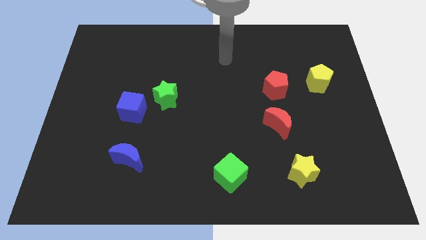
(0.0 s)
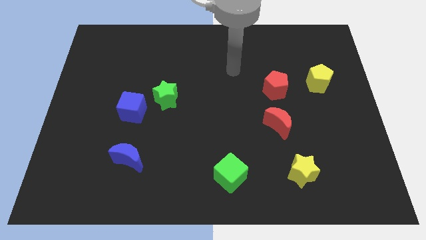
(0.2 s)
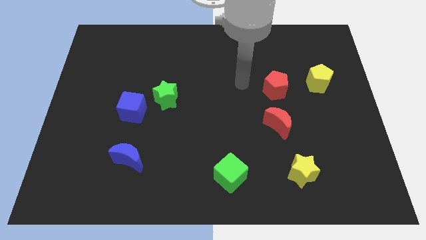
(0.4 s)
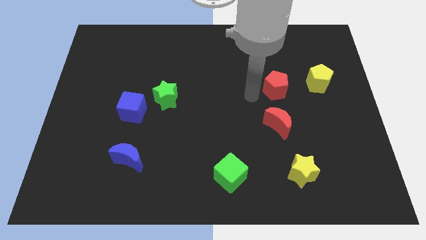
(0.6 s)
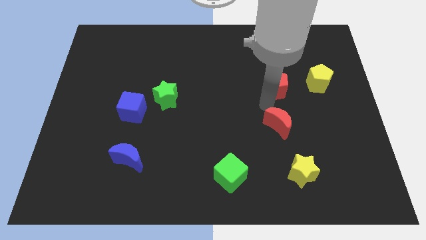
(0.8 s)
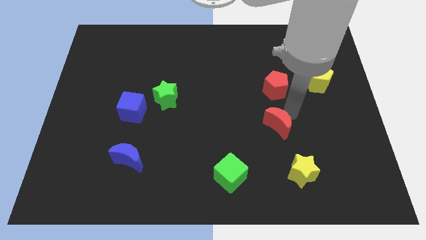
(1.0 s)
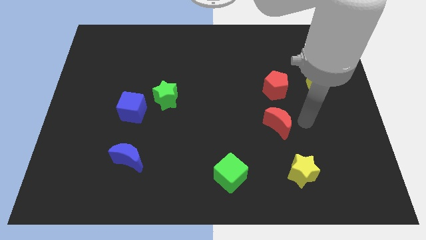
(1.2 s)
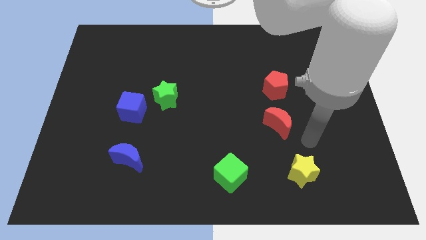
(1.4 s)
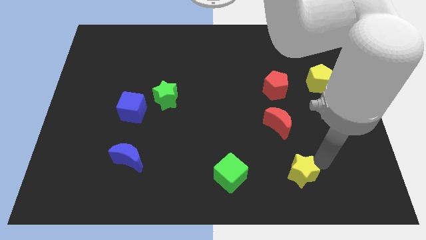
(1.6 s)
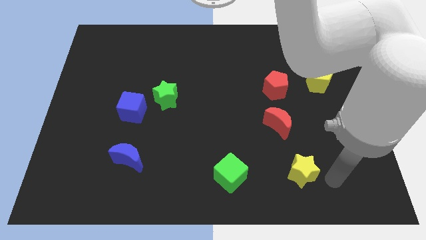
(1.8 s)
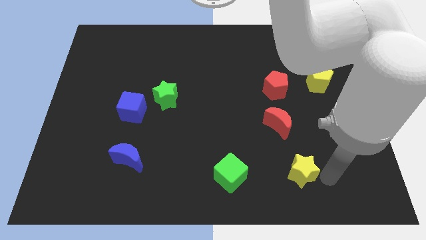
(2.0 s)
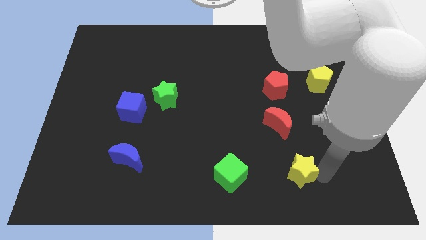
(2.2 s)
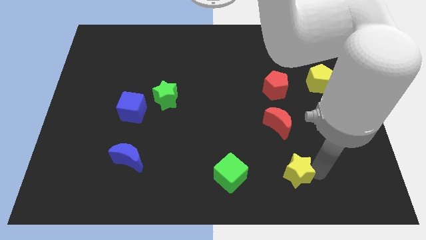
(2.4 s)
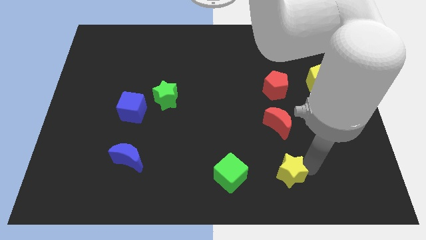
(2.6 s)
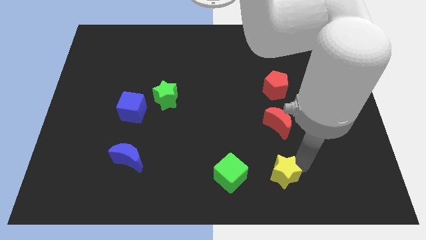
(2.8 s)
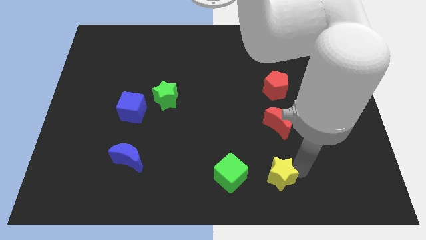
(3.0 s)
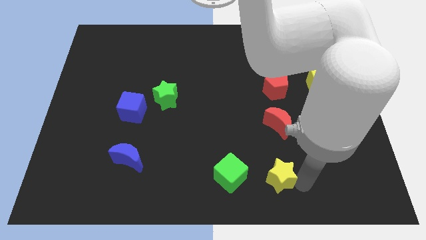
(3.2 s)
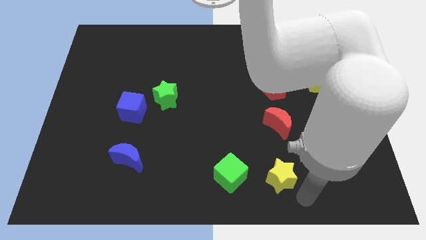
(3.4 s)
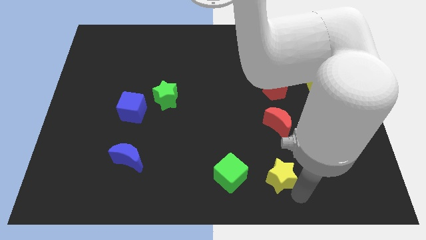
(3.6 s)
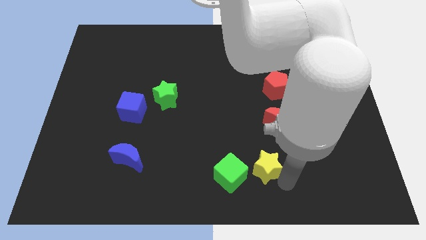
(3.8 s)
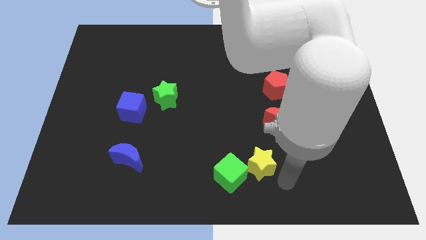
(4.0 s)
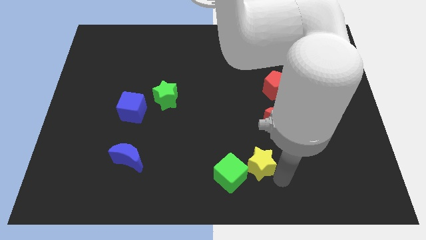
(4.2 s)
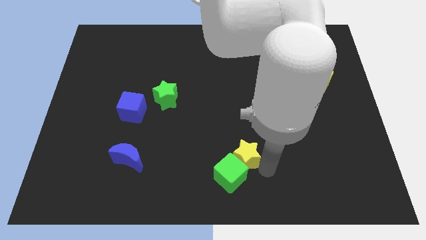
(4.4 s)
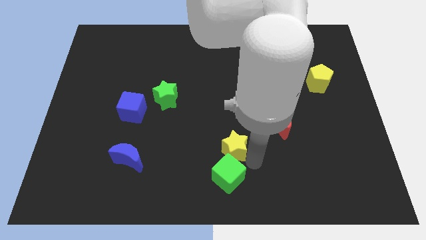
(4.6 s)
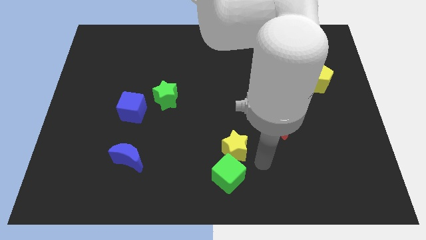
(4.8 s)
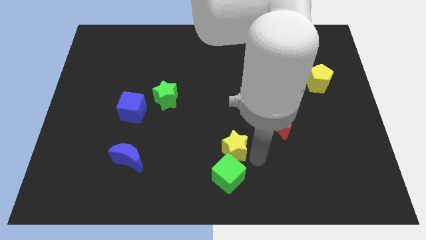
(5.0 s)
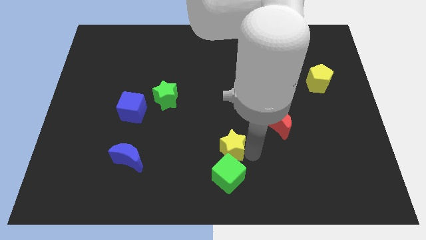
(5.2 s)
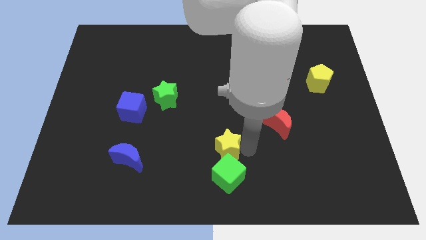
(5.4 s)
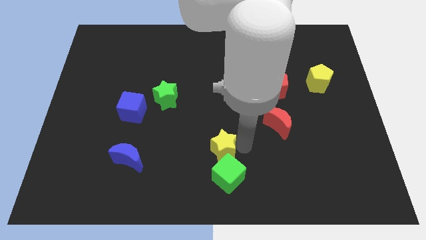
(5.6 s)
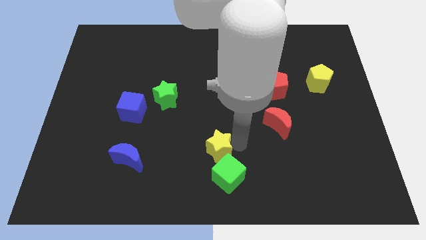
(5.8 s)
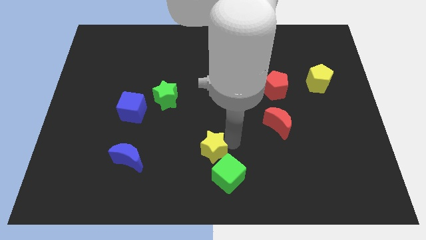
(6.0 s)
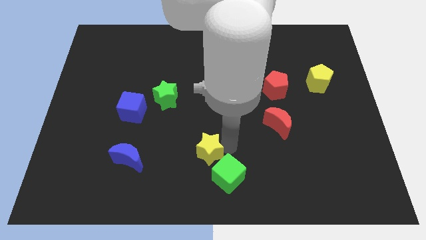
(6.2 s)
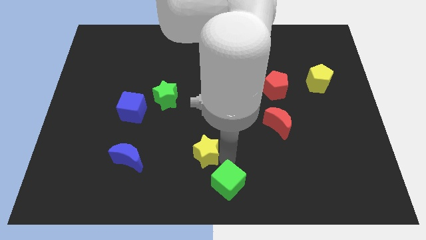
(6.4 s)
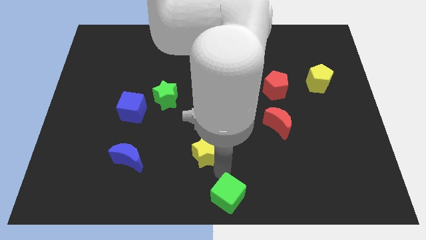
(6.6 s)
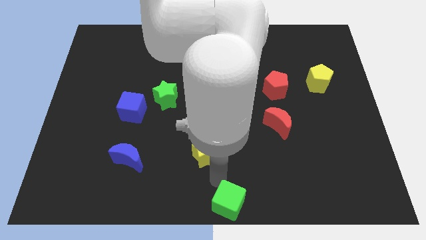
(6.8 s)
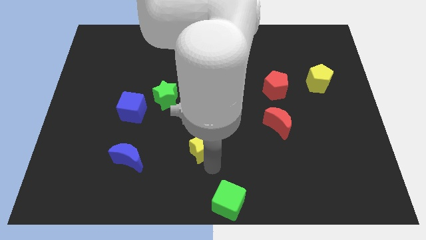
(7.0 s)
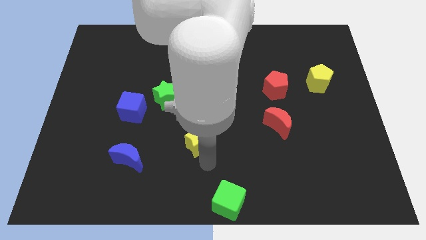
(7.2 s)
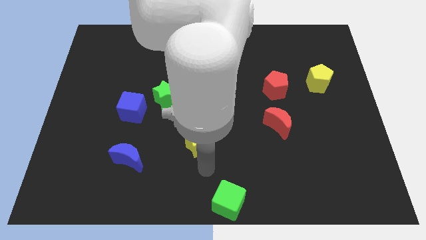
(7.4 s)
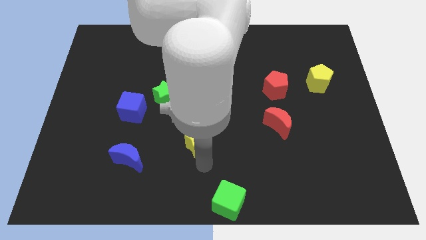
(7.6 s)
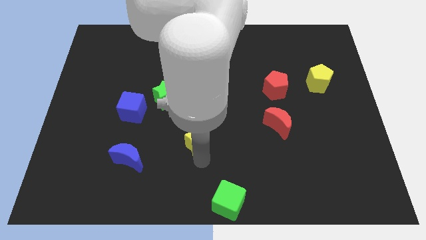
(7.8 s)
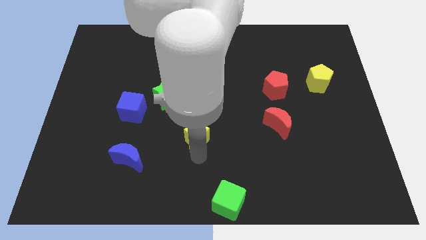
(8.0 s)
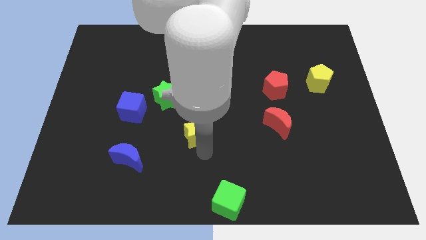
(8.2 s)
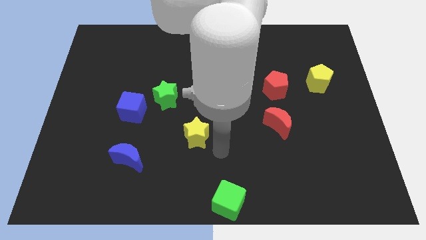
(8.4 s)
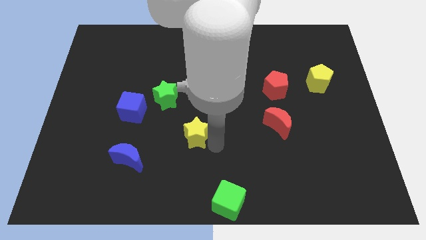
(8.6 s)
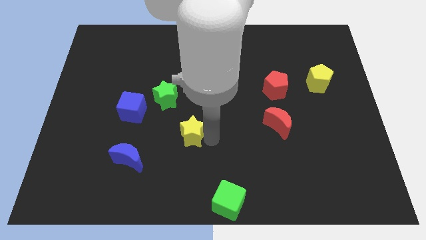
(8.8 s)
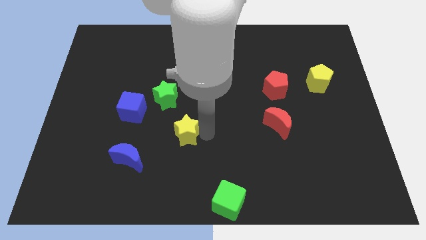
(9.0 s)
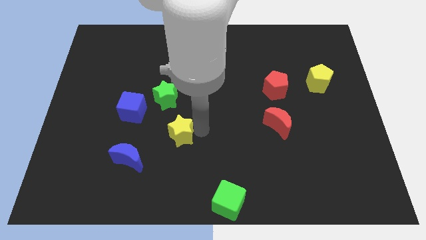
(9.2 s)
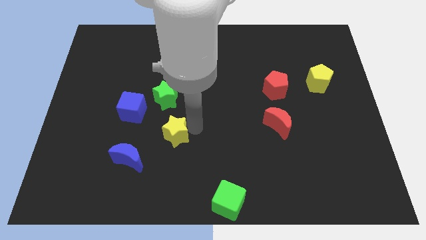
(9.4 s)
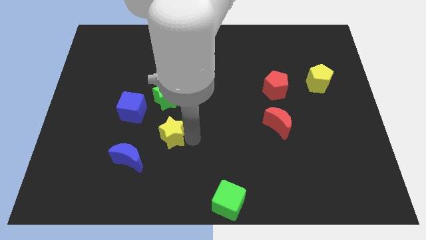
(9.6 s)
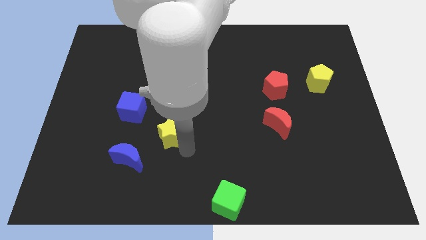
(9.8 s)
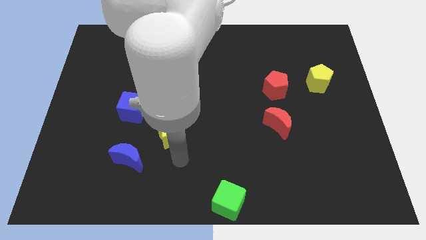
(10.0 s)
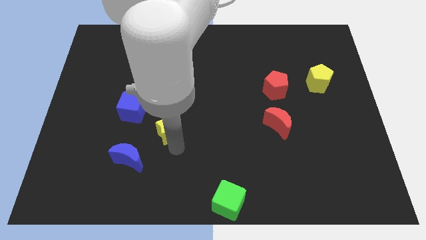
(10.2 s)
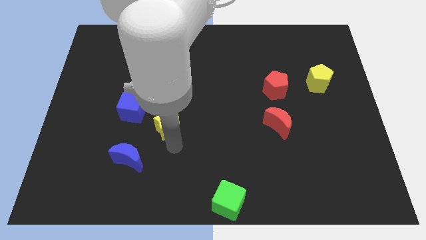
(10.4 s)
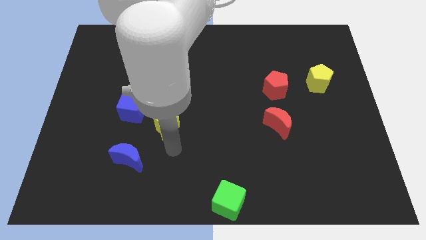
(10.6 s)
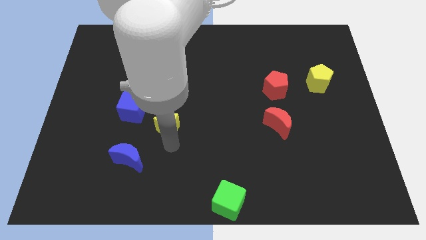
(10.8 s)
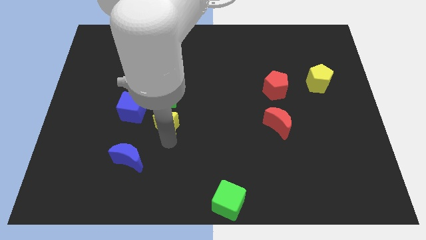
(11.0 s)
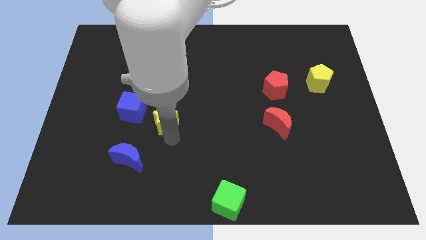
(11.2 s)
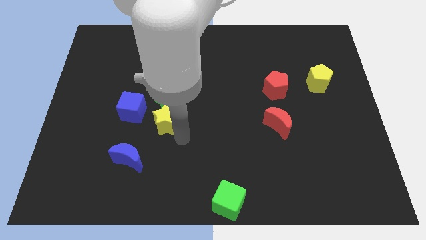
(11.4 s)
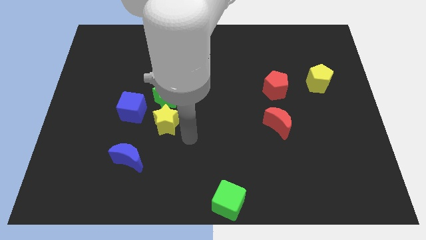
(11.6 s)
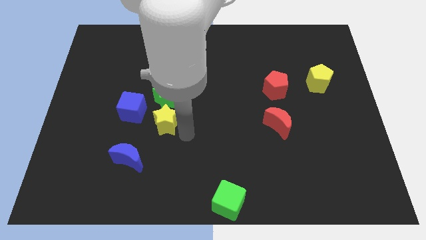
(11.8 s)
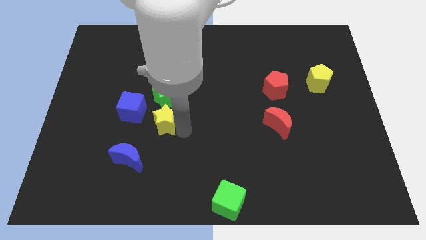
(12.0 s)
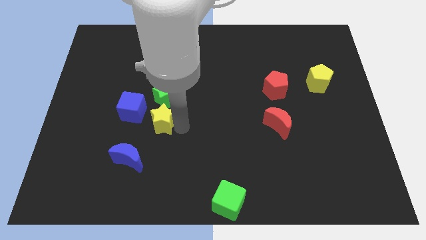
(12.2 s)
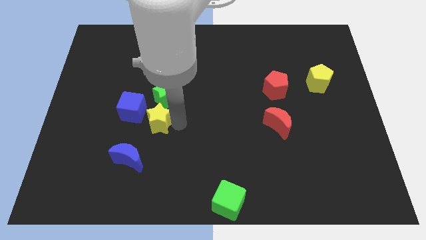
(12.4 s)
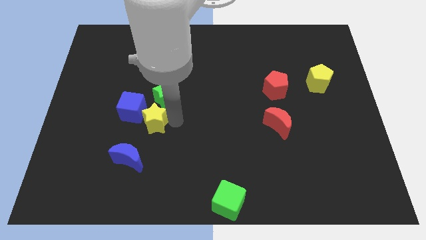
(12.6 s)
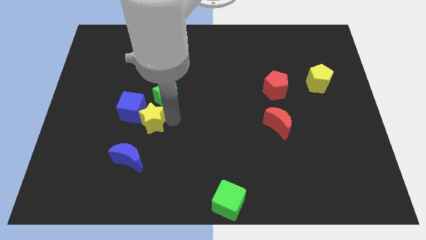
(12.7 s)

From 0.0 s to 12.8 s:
slide the yellow star next to the blue cube
